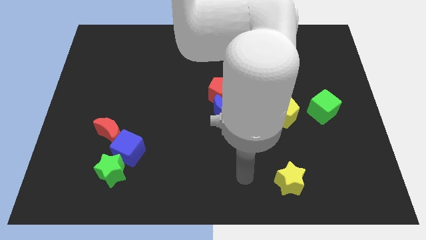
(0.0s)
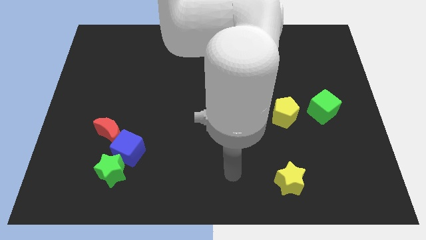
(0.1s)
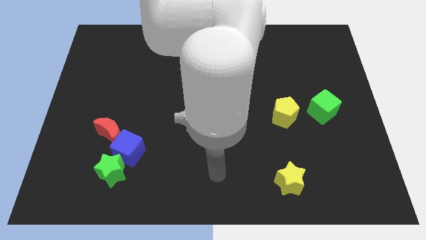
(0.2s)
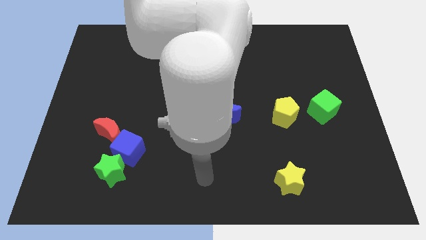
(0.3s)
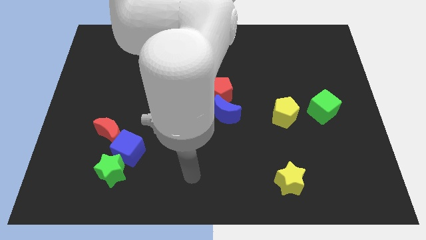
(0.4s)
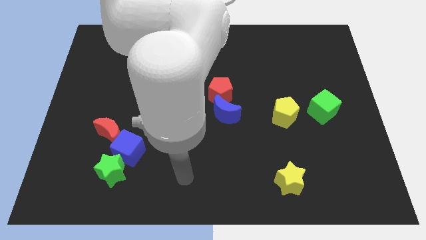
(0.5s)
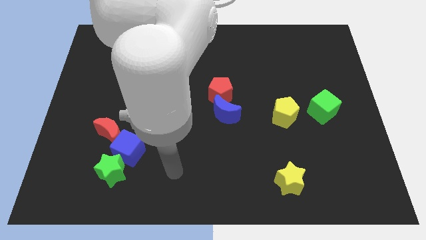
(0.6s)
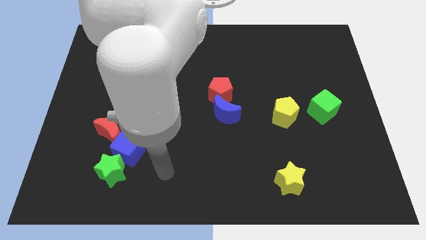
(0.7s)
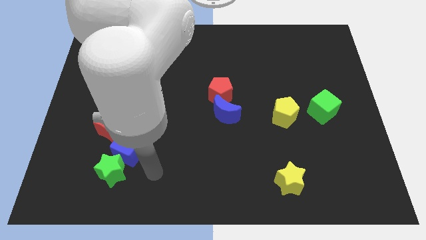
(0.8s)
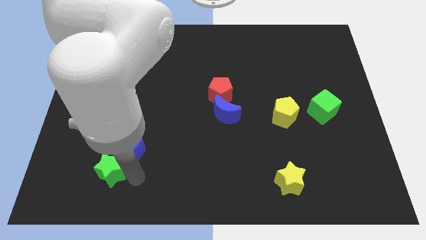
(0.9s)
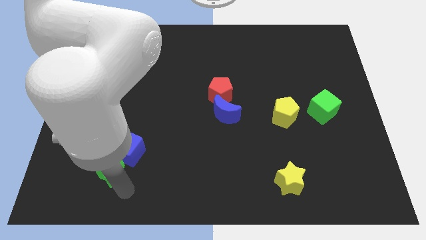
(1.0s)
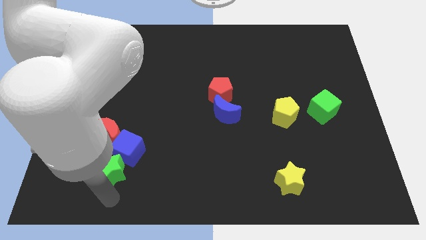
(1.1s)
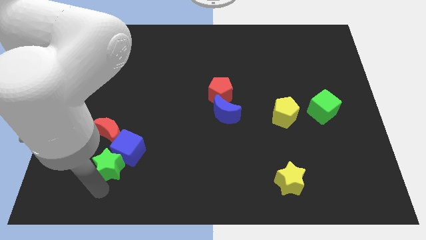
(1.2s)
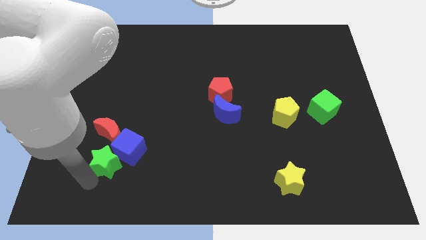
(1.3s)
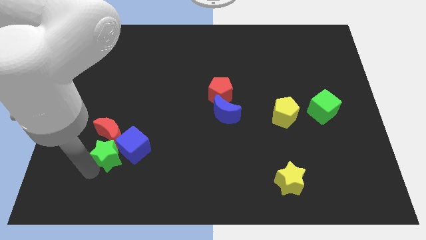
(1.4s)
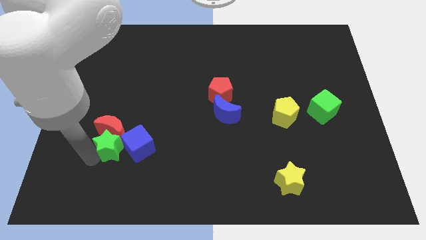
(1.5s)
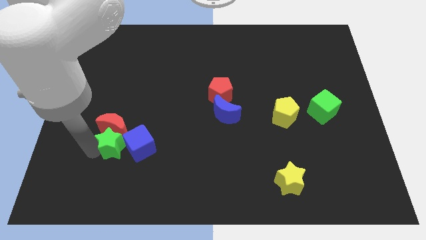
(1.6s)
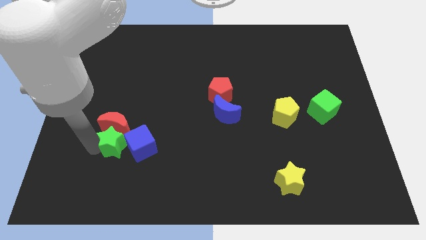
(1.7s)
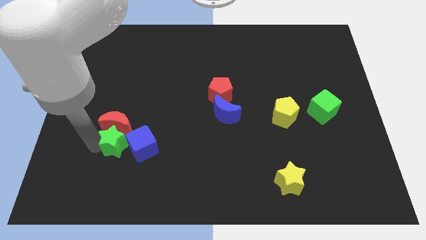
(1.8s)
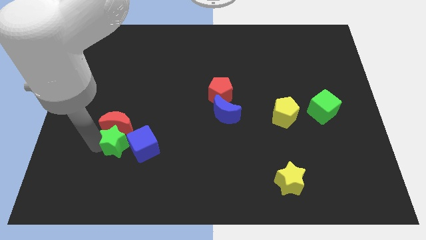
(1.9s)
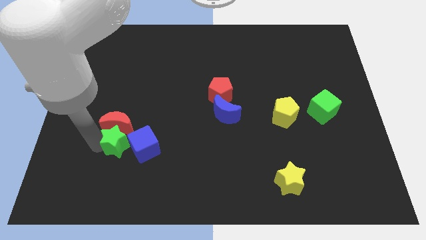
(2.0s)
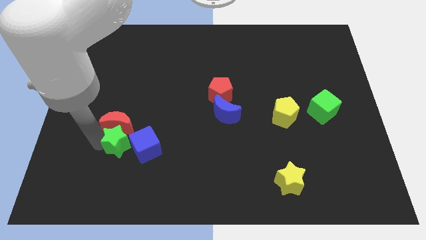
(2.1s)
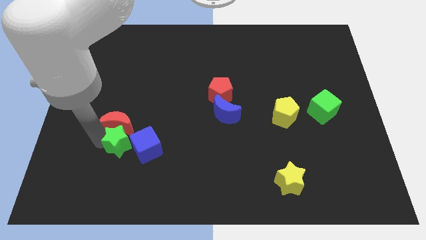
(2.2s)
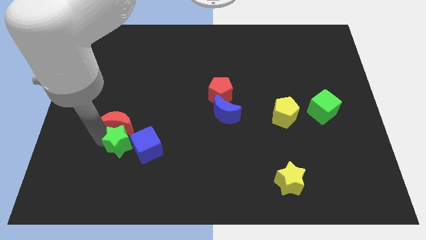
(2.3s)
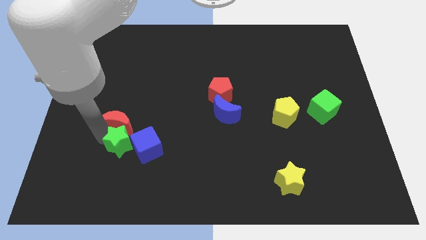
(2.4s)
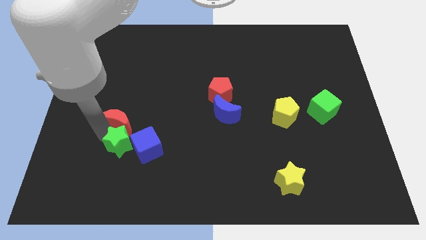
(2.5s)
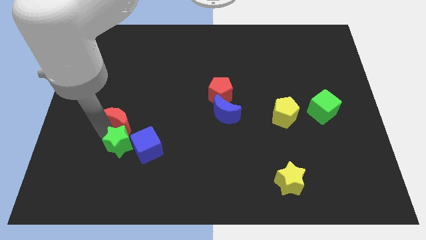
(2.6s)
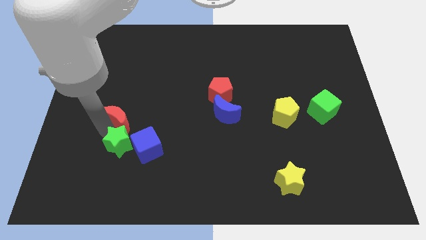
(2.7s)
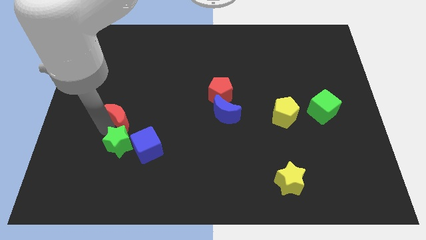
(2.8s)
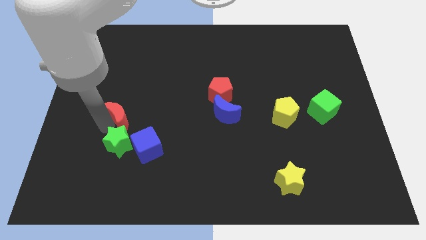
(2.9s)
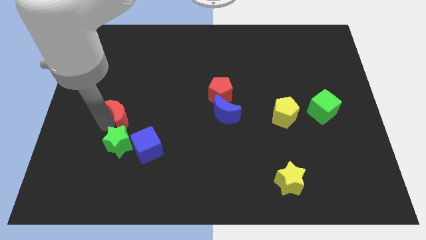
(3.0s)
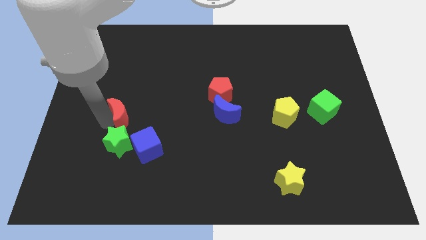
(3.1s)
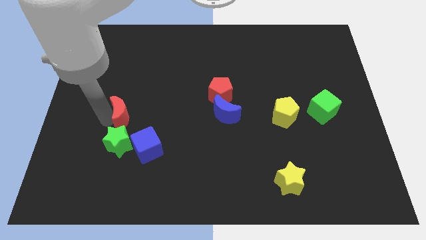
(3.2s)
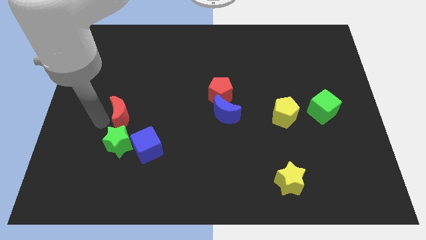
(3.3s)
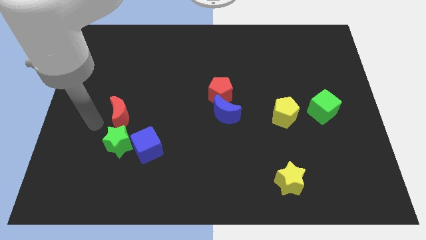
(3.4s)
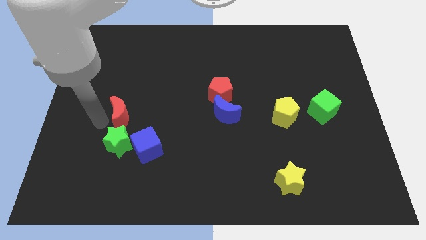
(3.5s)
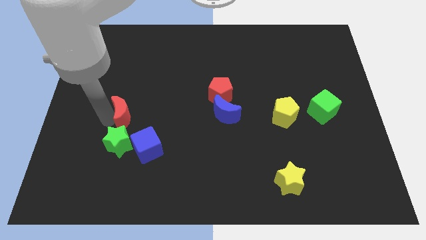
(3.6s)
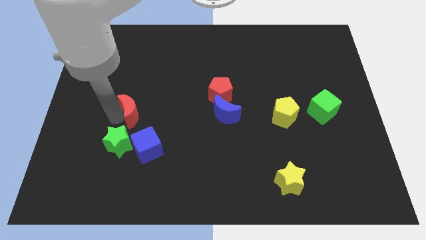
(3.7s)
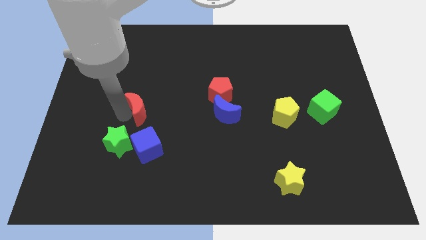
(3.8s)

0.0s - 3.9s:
move the red moon upwards and then to the right a little

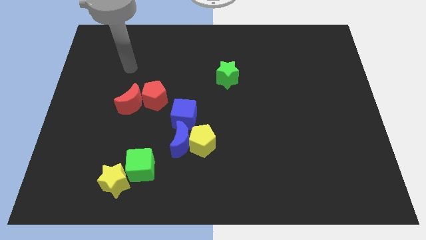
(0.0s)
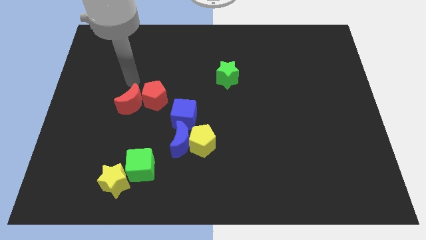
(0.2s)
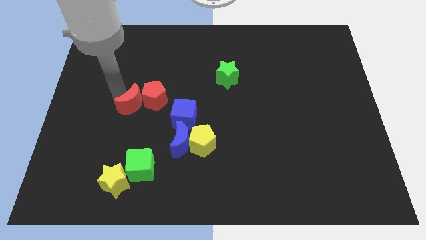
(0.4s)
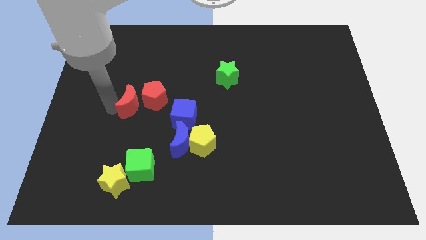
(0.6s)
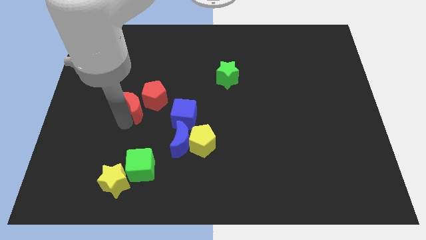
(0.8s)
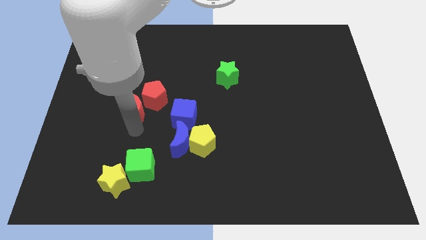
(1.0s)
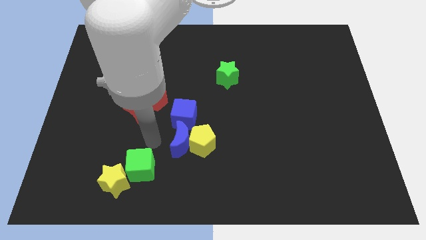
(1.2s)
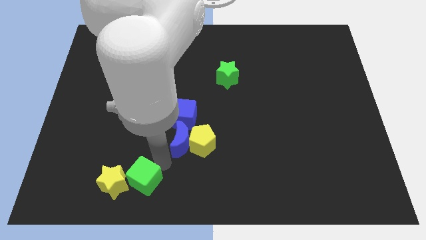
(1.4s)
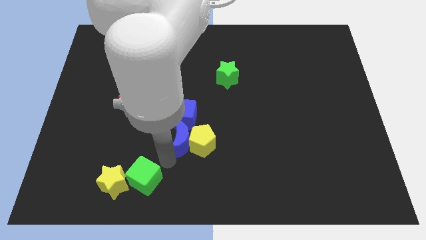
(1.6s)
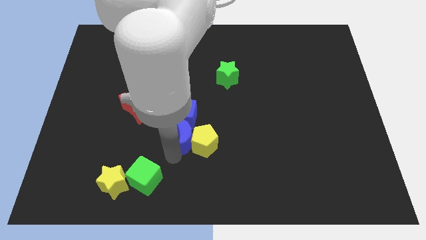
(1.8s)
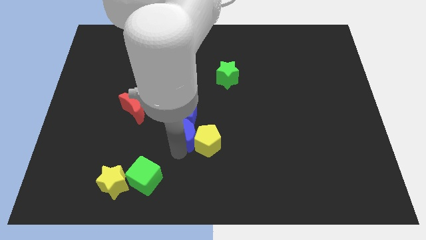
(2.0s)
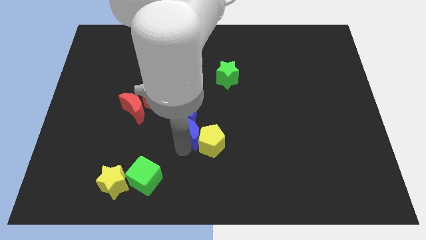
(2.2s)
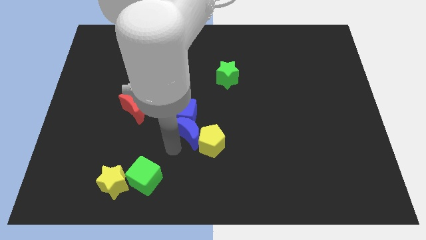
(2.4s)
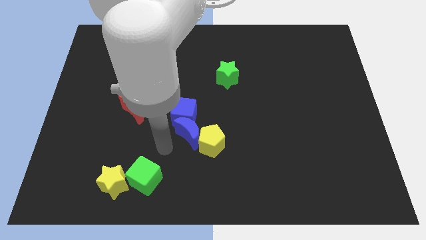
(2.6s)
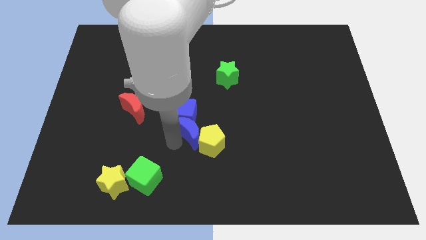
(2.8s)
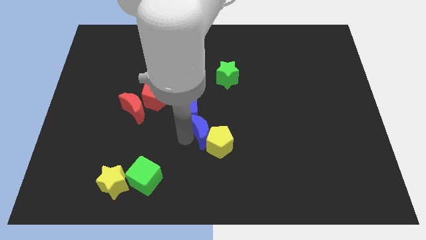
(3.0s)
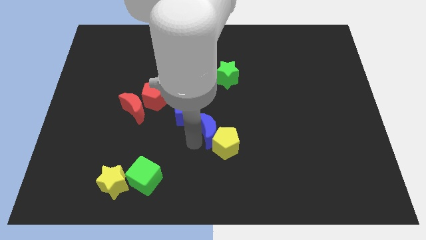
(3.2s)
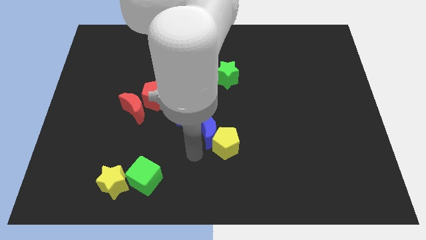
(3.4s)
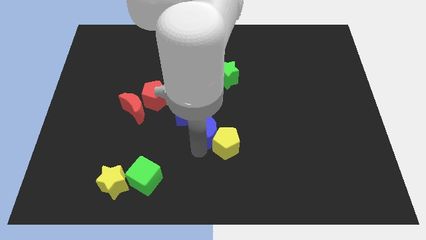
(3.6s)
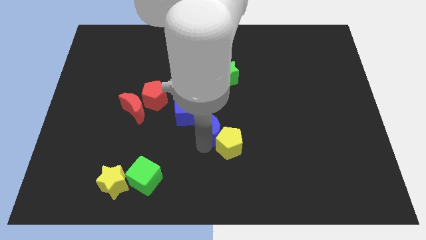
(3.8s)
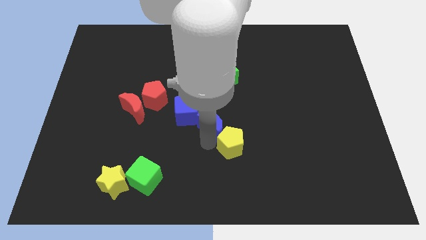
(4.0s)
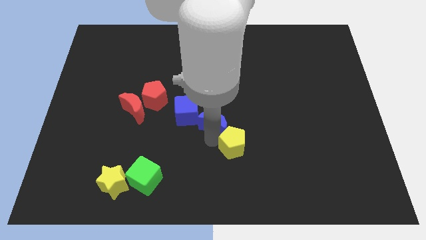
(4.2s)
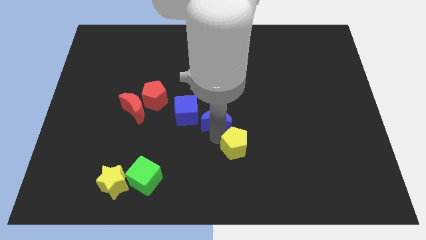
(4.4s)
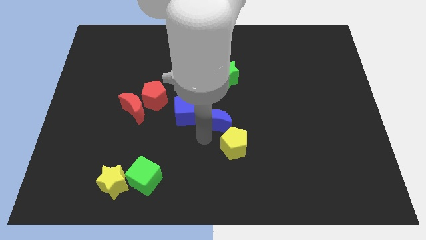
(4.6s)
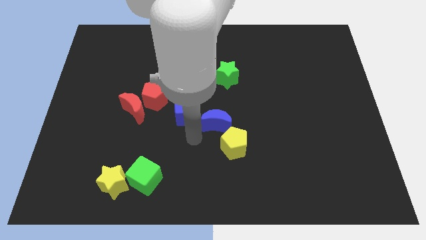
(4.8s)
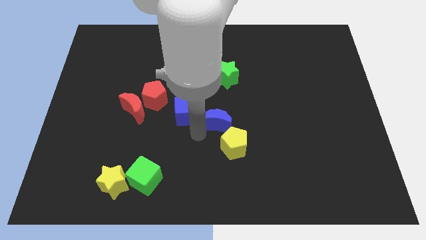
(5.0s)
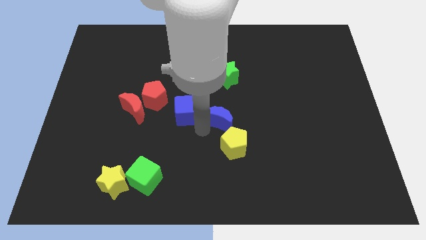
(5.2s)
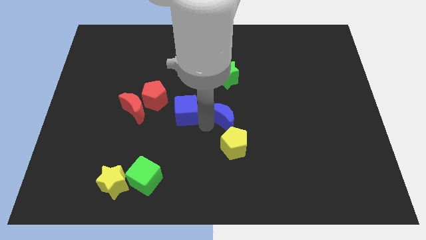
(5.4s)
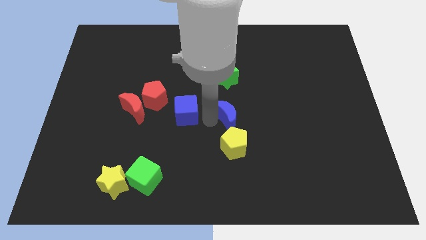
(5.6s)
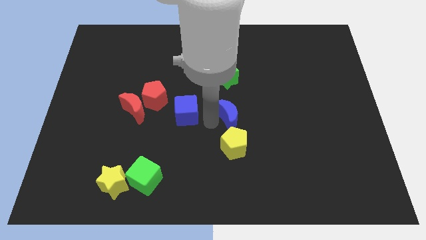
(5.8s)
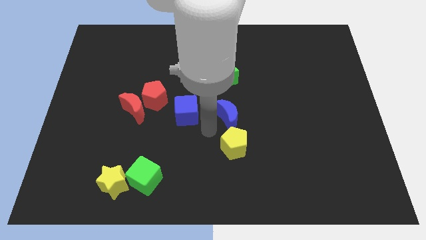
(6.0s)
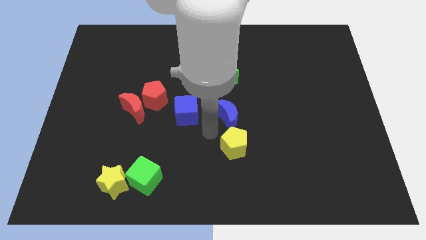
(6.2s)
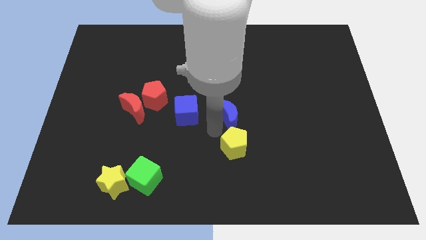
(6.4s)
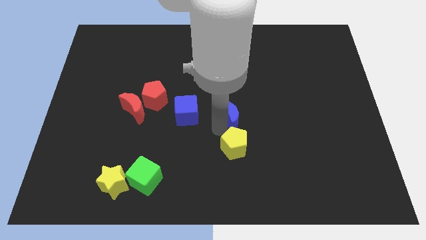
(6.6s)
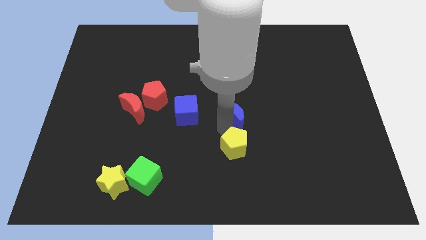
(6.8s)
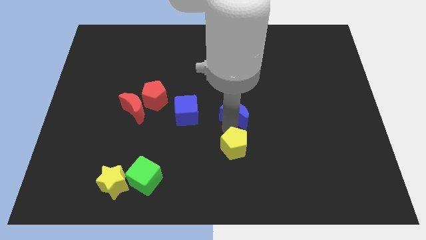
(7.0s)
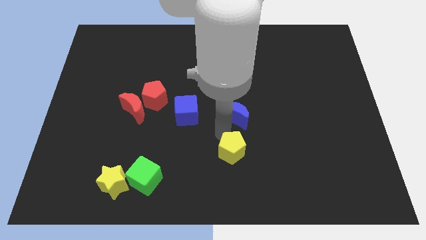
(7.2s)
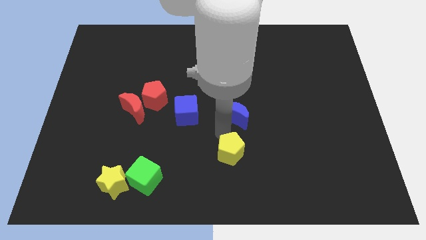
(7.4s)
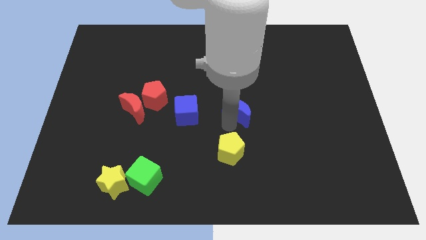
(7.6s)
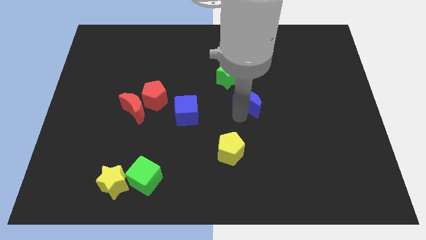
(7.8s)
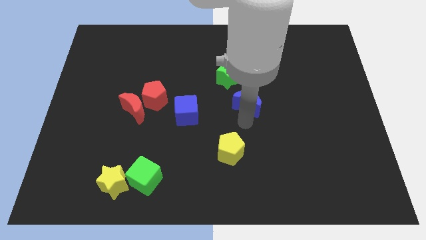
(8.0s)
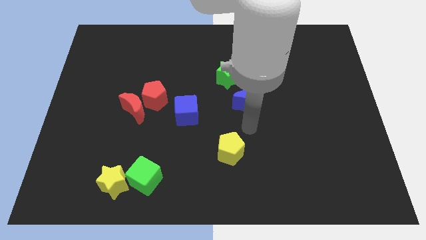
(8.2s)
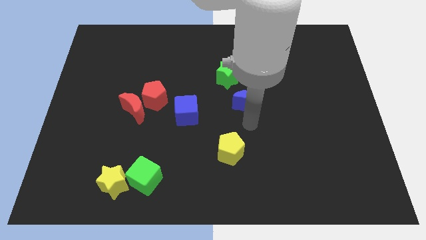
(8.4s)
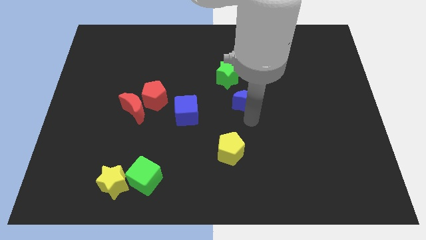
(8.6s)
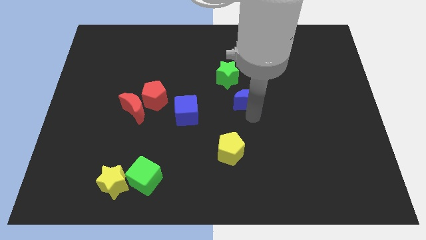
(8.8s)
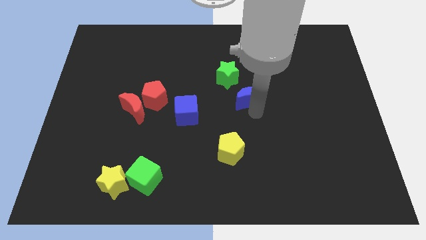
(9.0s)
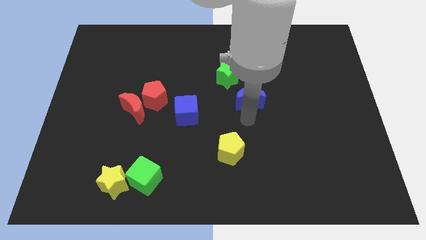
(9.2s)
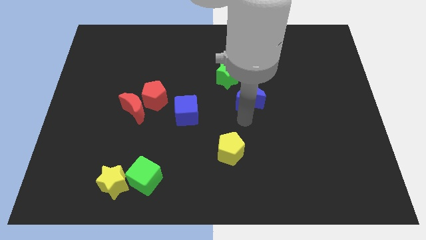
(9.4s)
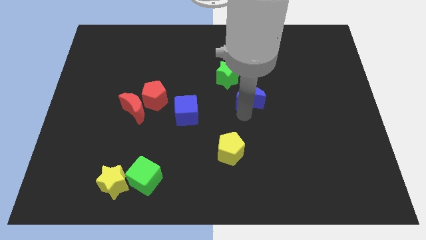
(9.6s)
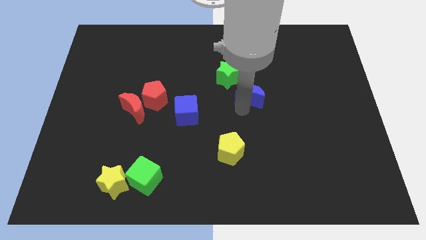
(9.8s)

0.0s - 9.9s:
move the blue moon diagonally upwards and to the right
